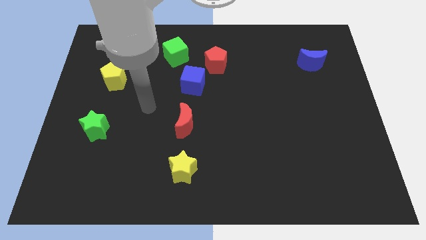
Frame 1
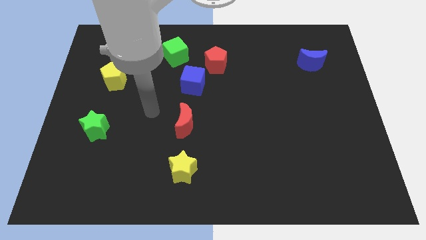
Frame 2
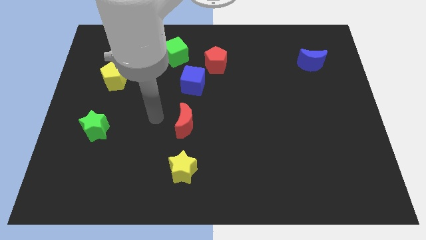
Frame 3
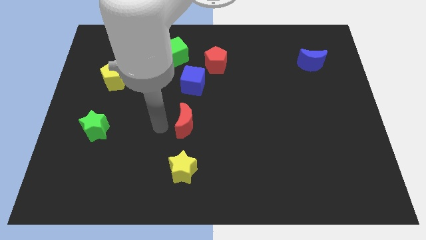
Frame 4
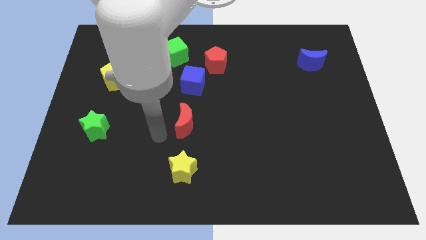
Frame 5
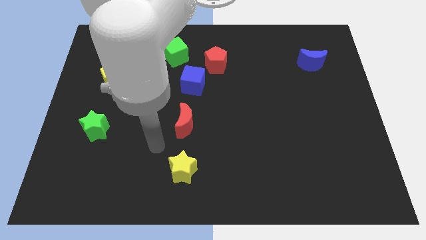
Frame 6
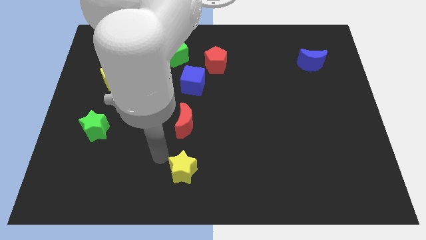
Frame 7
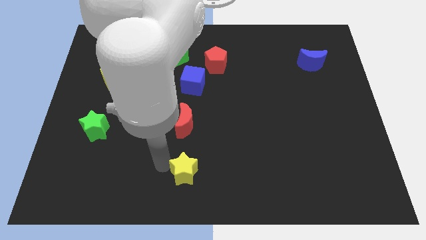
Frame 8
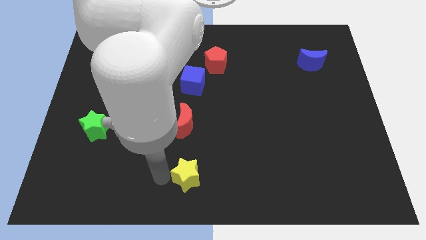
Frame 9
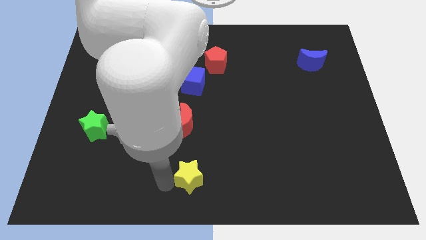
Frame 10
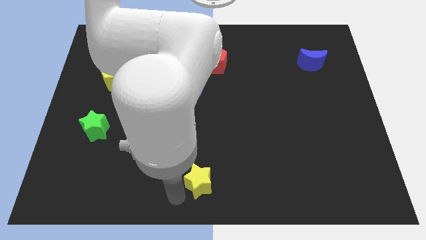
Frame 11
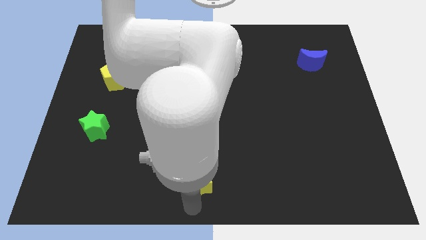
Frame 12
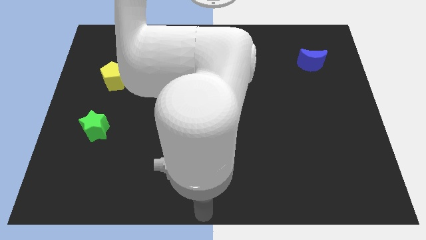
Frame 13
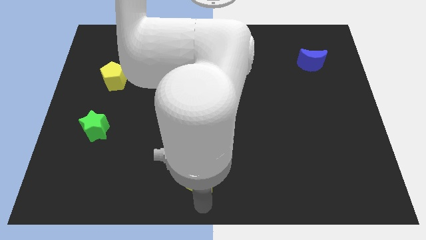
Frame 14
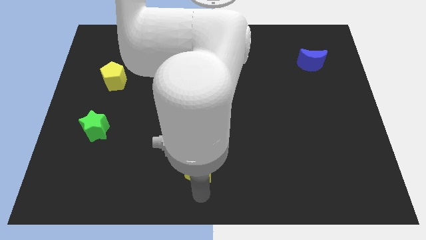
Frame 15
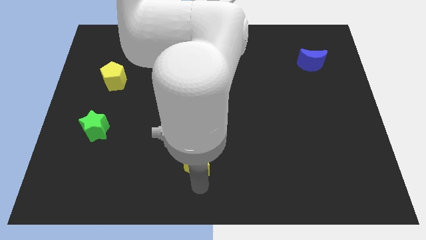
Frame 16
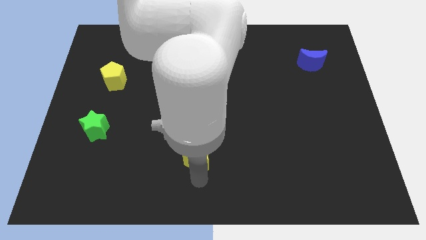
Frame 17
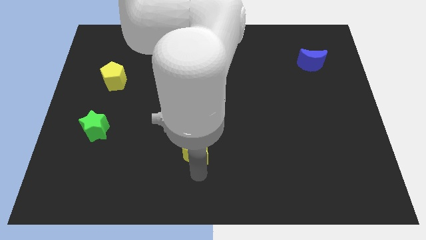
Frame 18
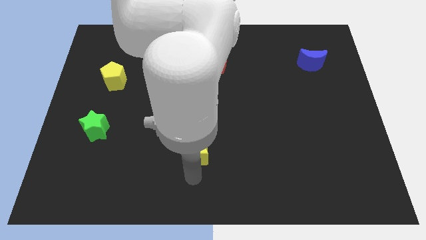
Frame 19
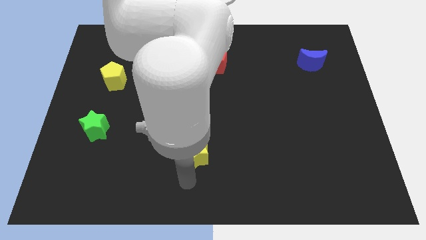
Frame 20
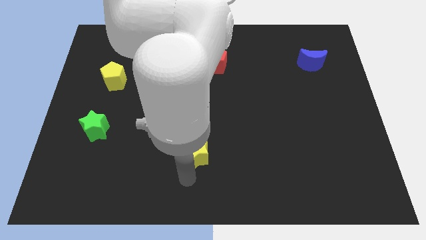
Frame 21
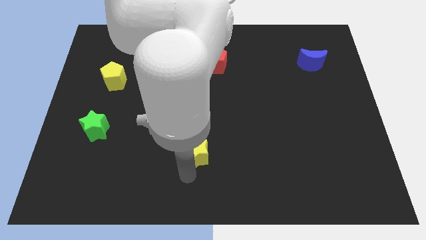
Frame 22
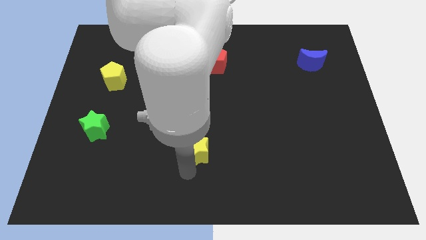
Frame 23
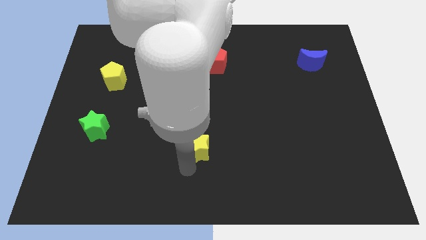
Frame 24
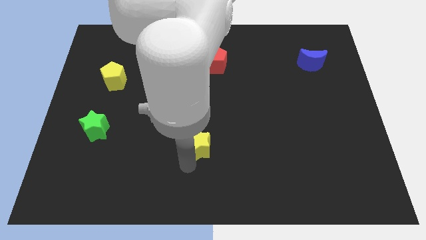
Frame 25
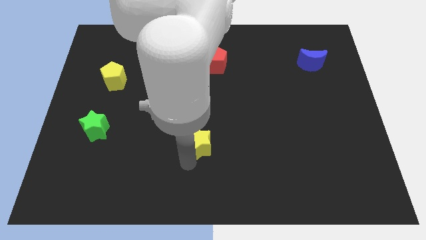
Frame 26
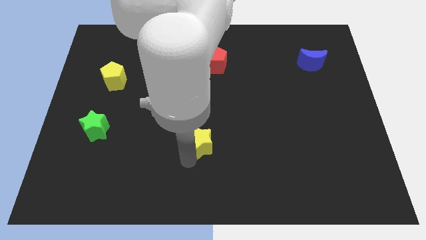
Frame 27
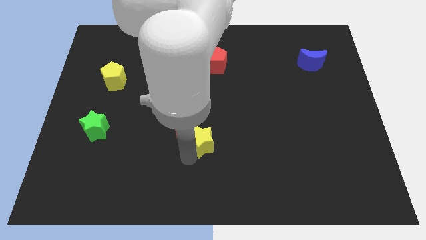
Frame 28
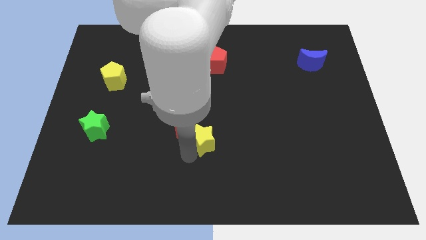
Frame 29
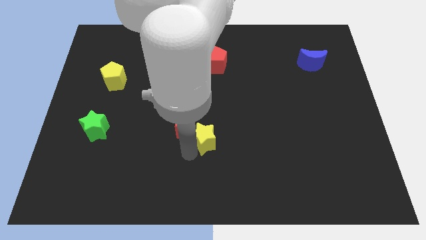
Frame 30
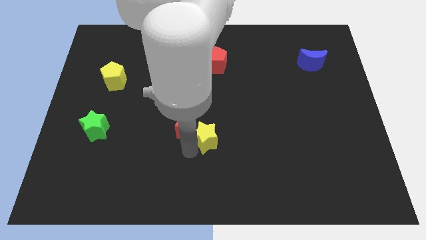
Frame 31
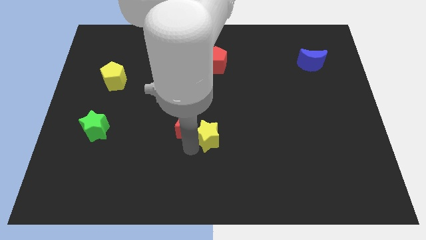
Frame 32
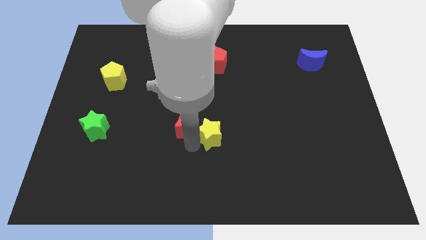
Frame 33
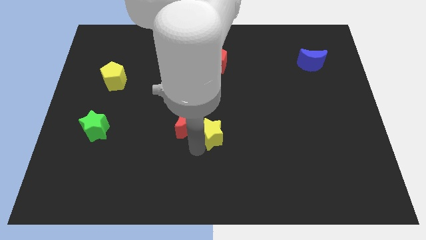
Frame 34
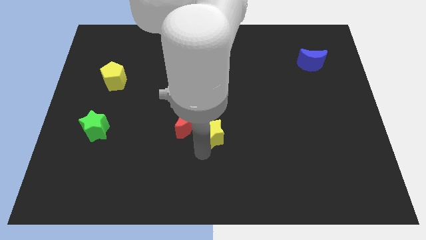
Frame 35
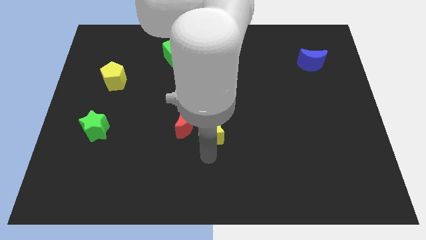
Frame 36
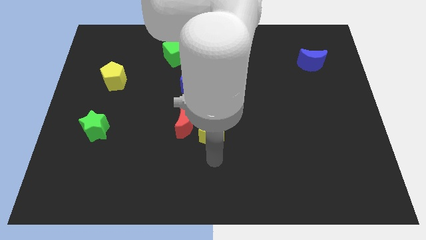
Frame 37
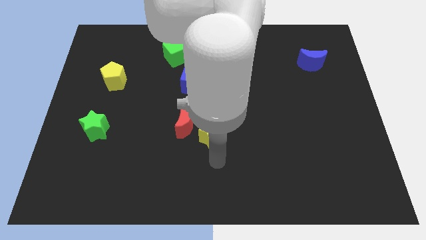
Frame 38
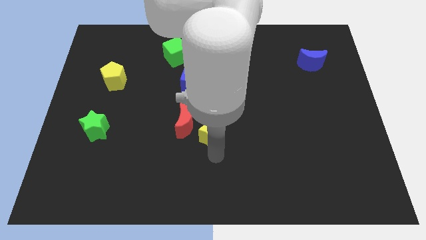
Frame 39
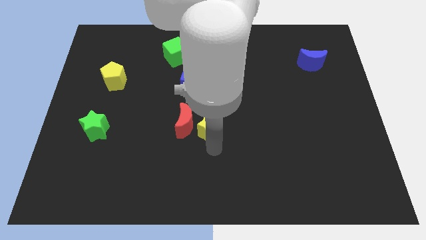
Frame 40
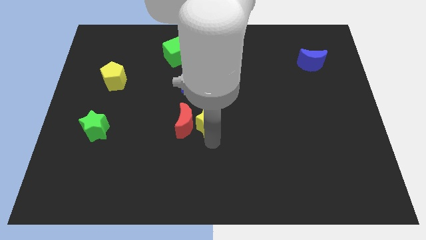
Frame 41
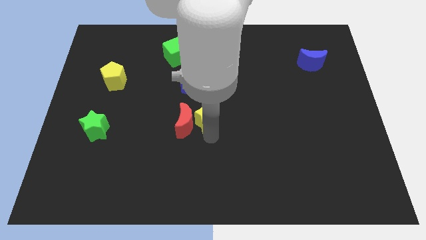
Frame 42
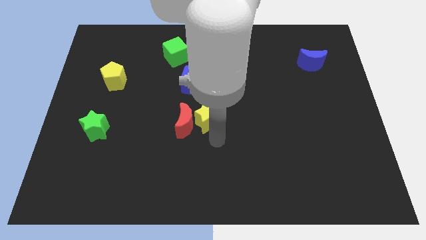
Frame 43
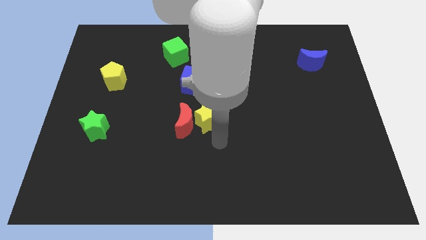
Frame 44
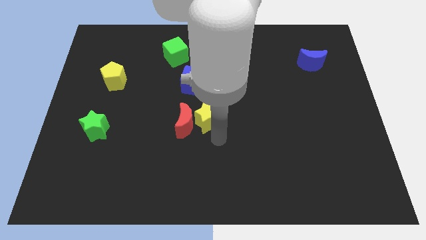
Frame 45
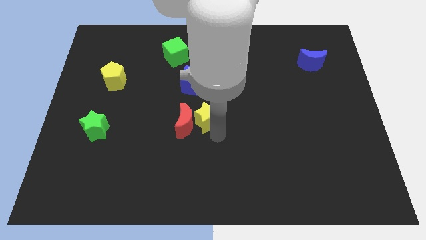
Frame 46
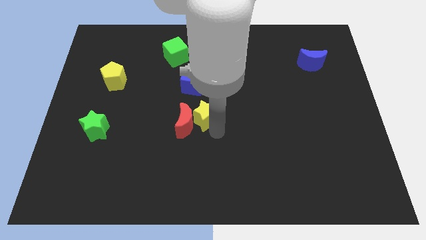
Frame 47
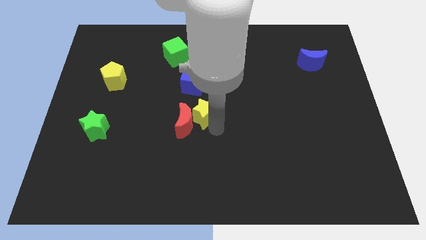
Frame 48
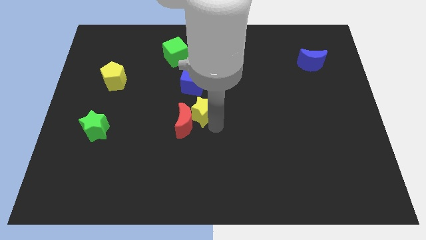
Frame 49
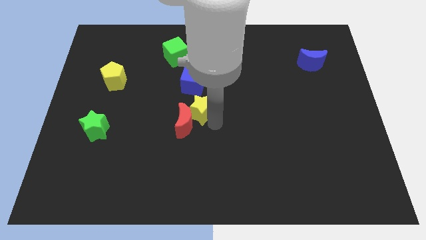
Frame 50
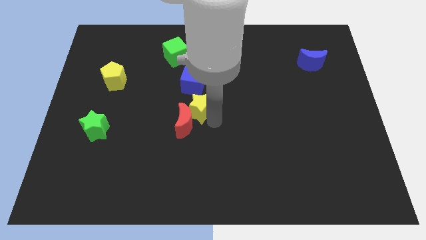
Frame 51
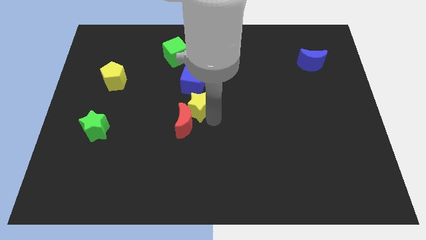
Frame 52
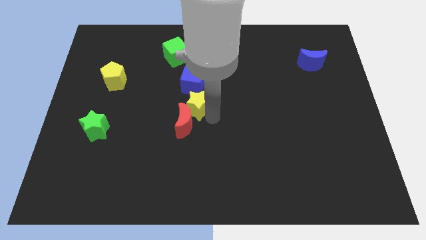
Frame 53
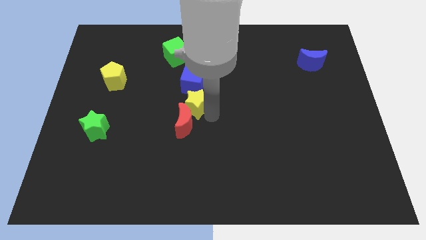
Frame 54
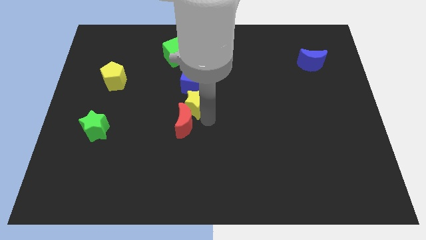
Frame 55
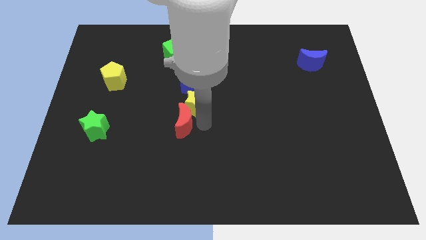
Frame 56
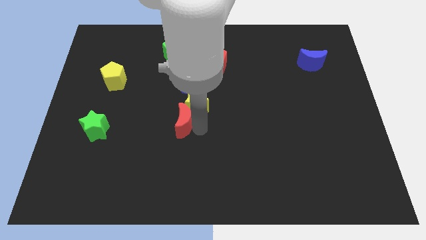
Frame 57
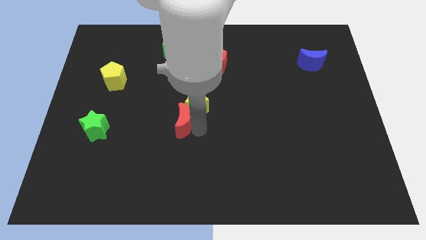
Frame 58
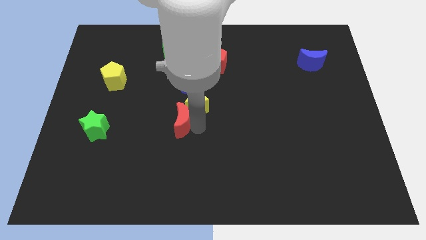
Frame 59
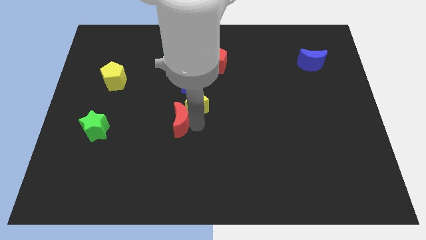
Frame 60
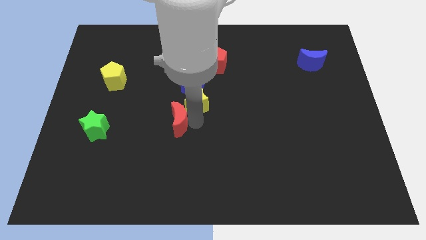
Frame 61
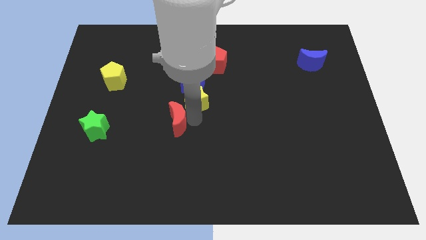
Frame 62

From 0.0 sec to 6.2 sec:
move the yellow star next to the blue cube

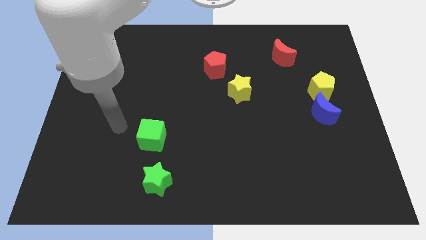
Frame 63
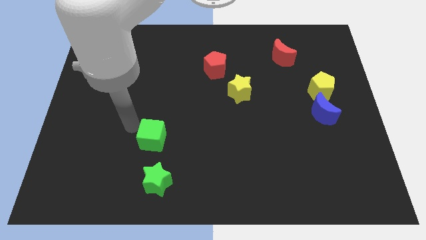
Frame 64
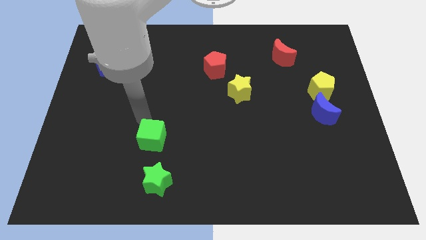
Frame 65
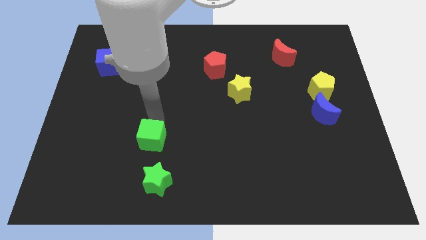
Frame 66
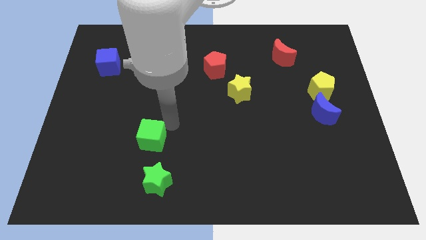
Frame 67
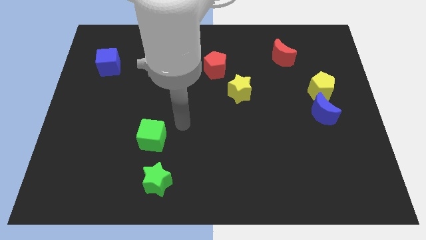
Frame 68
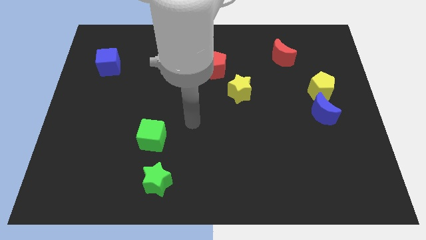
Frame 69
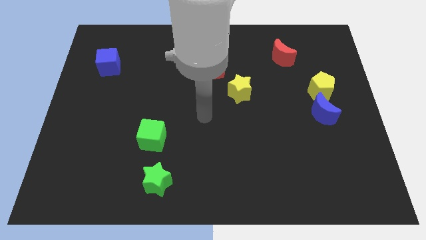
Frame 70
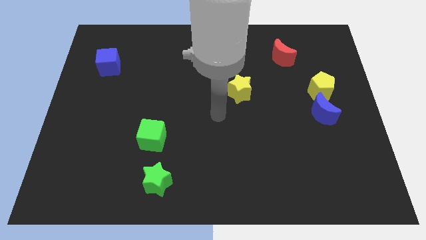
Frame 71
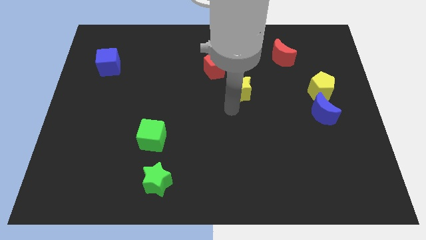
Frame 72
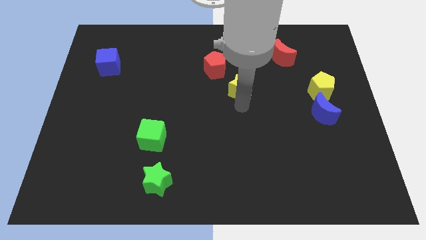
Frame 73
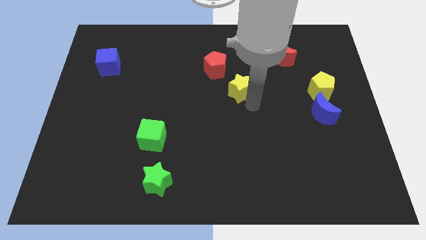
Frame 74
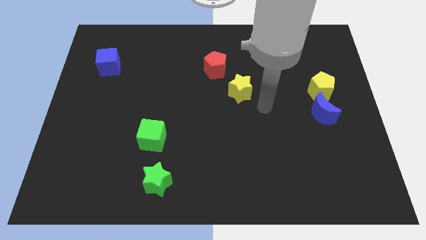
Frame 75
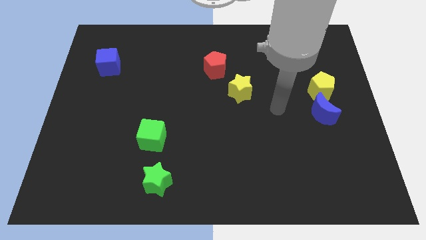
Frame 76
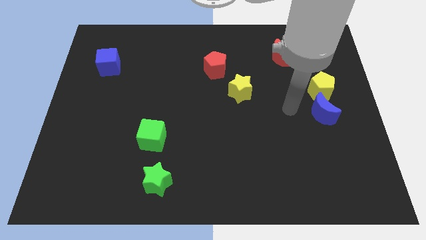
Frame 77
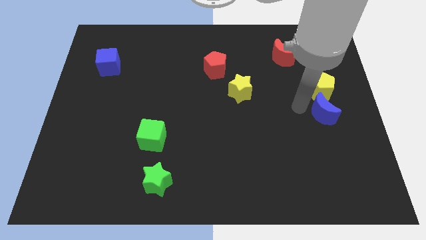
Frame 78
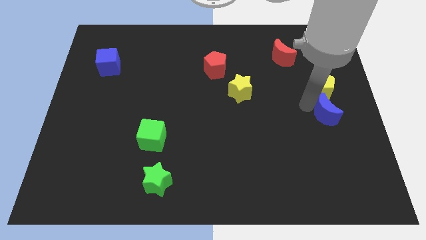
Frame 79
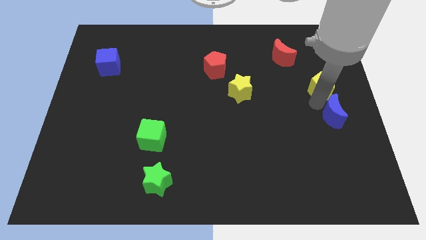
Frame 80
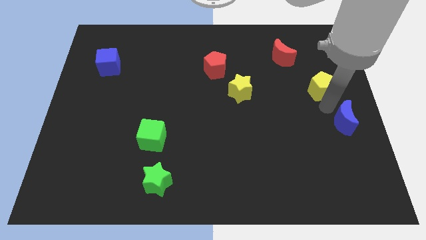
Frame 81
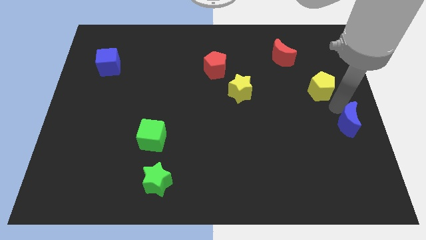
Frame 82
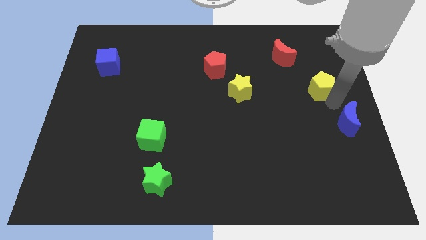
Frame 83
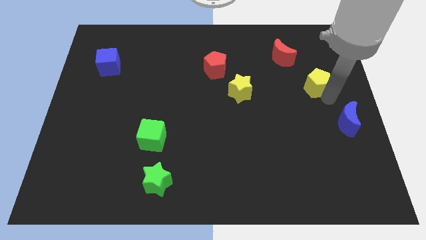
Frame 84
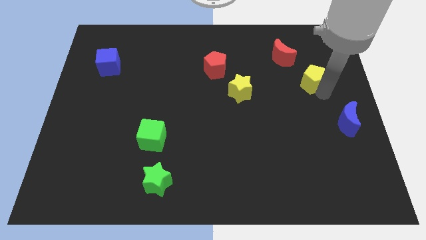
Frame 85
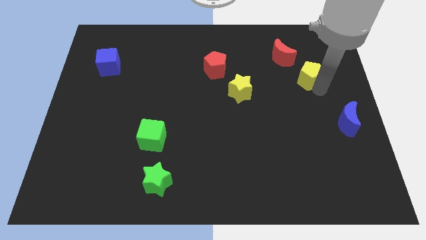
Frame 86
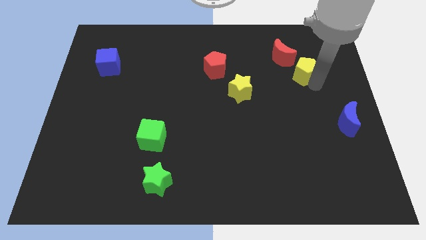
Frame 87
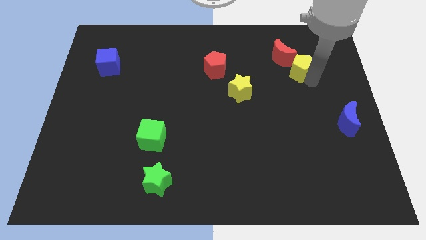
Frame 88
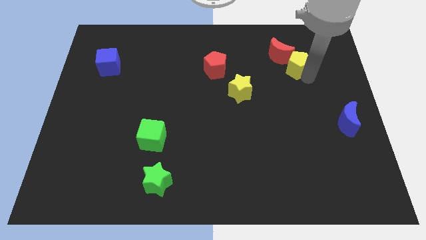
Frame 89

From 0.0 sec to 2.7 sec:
move the yellow pentagon close to the red moon
